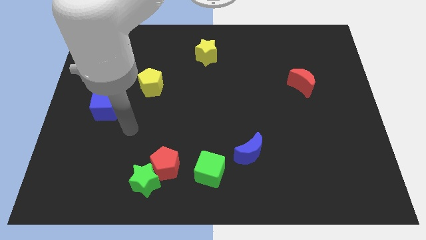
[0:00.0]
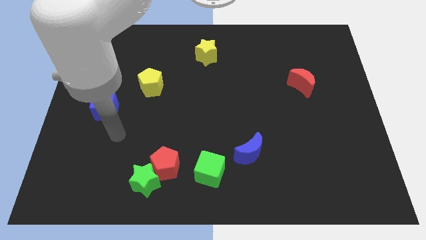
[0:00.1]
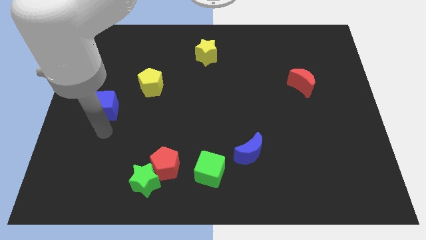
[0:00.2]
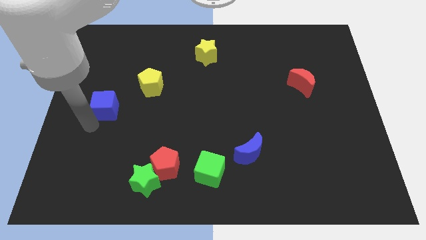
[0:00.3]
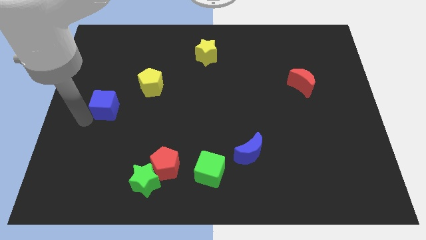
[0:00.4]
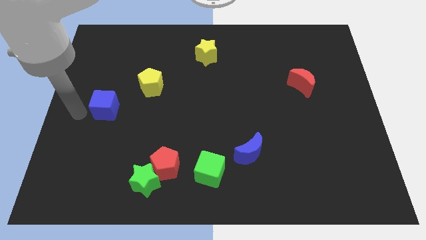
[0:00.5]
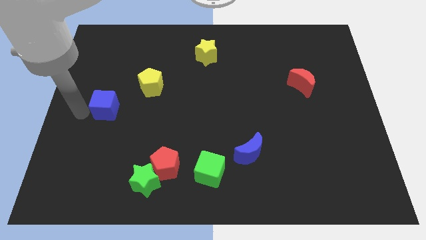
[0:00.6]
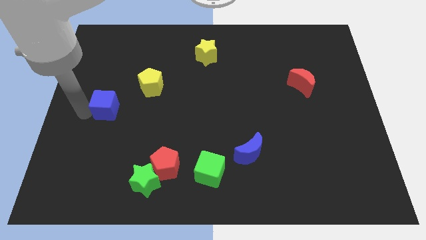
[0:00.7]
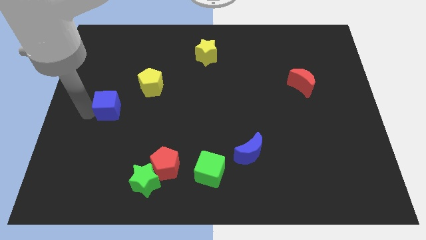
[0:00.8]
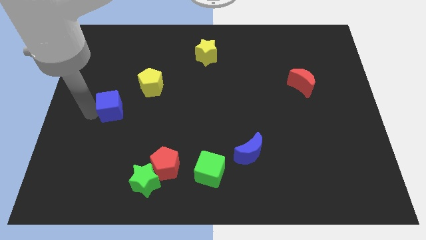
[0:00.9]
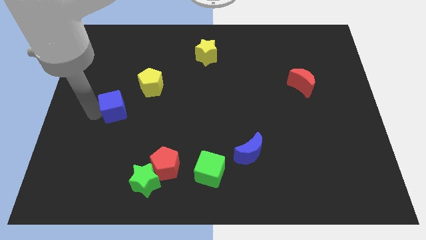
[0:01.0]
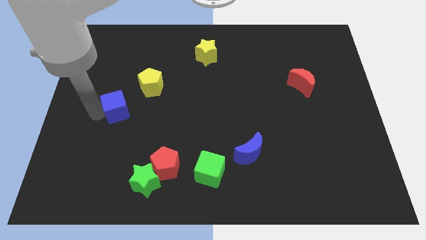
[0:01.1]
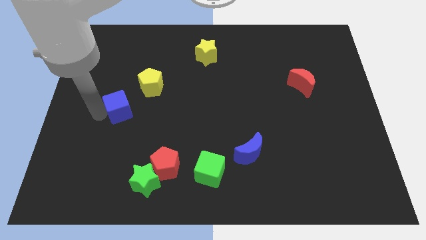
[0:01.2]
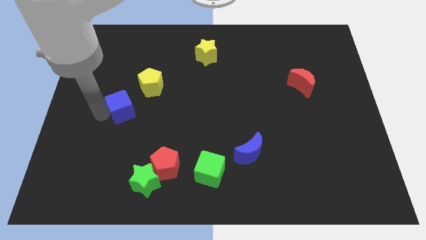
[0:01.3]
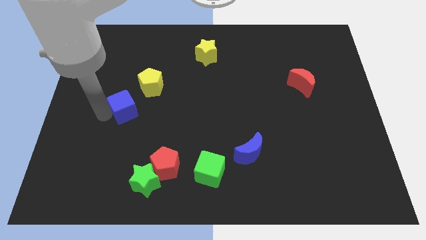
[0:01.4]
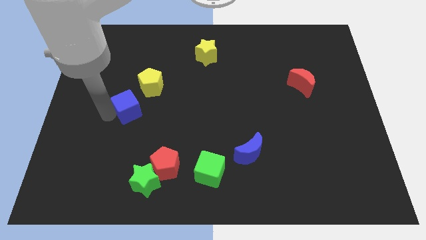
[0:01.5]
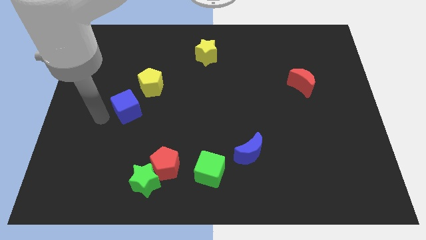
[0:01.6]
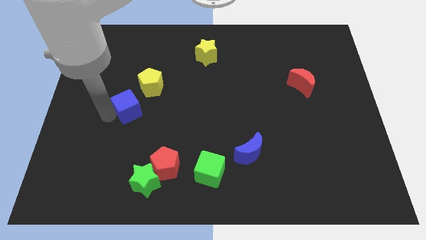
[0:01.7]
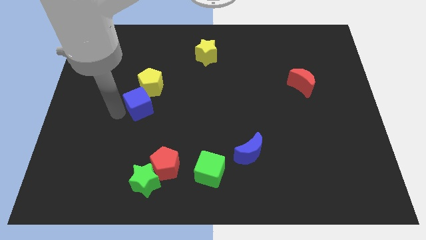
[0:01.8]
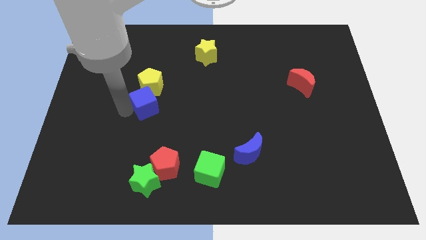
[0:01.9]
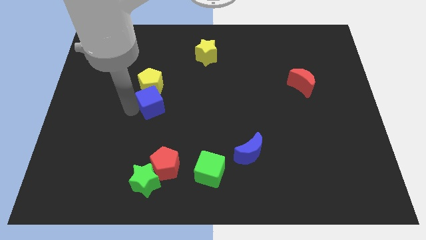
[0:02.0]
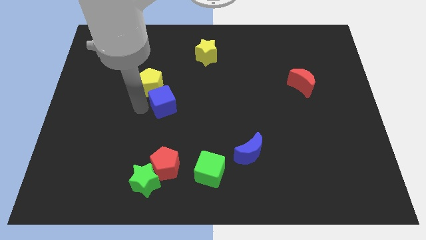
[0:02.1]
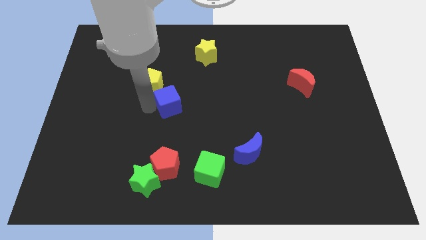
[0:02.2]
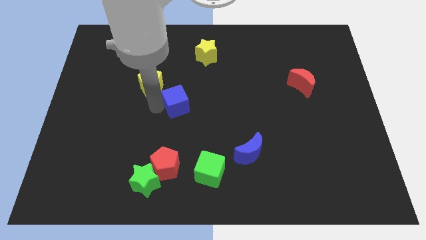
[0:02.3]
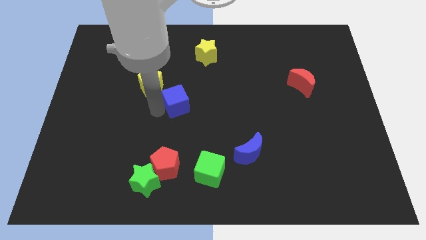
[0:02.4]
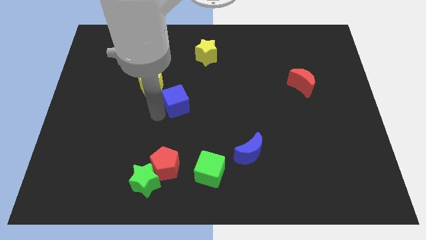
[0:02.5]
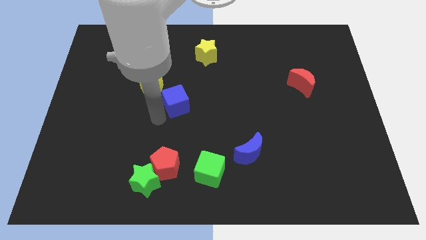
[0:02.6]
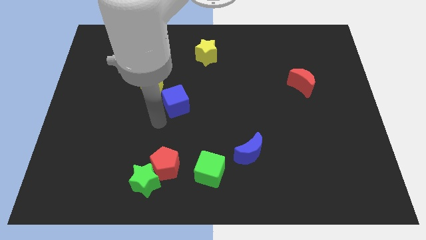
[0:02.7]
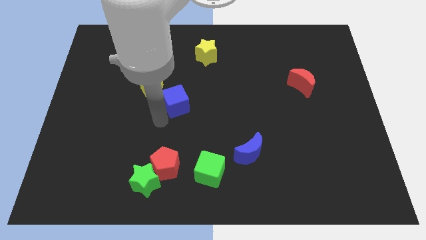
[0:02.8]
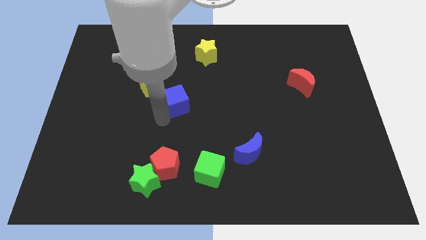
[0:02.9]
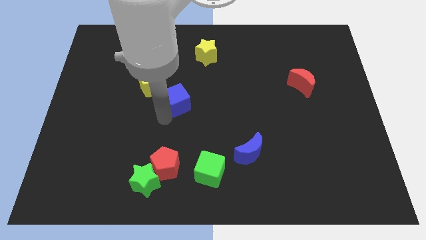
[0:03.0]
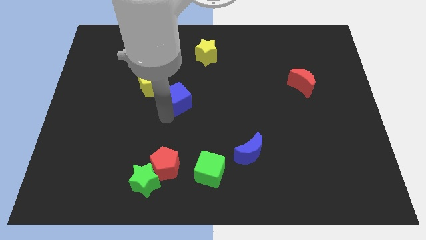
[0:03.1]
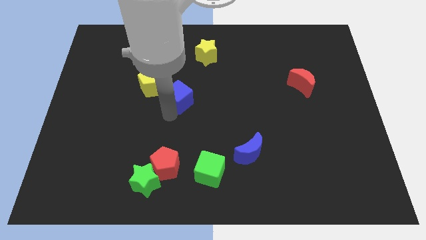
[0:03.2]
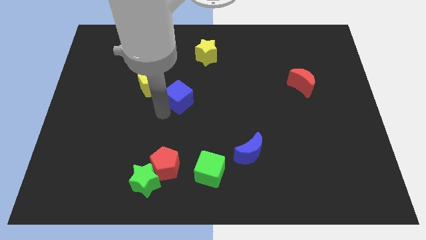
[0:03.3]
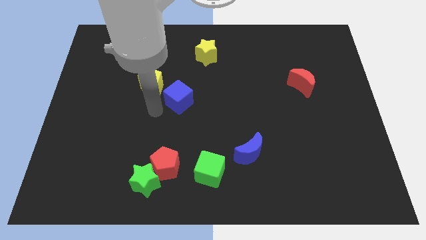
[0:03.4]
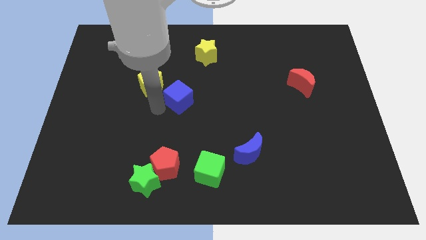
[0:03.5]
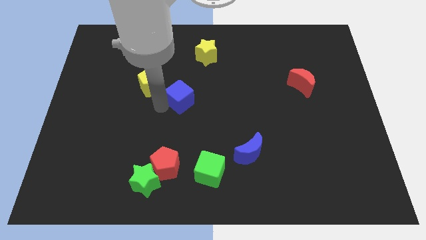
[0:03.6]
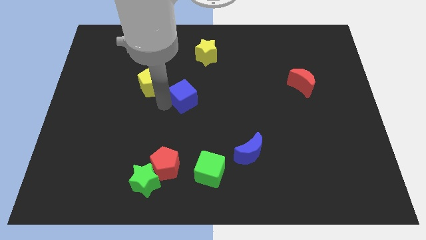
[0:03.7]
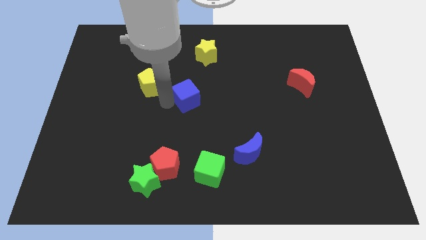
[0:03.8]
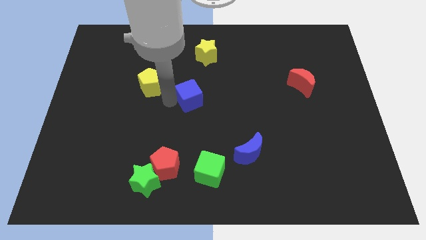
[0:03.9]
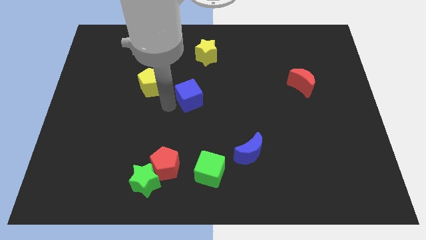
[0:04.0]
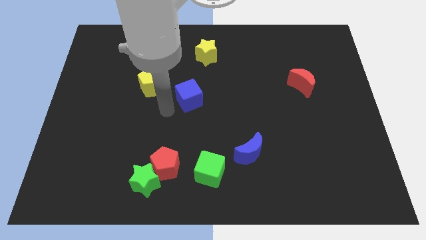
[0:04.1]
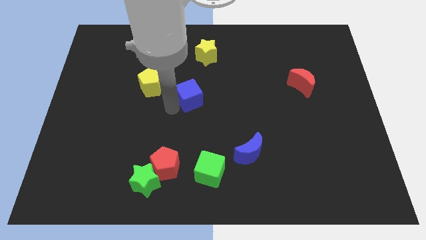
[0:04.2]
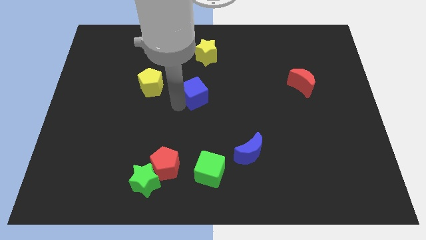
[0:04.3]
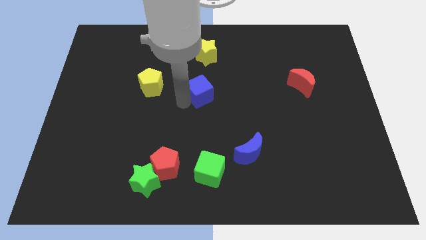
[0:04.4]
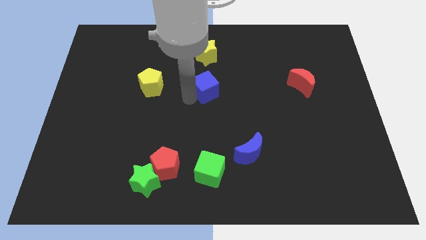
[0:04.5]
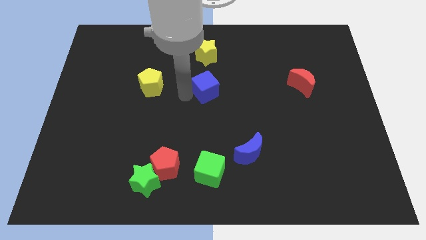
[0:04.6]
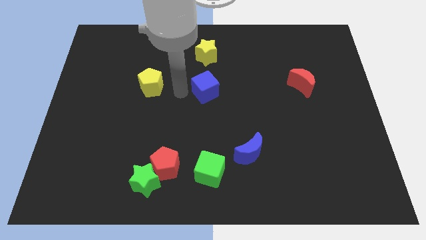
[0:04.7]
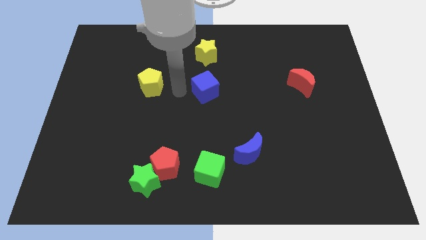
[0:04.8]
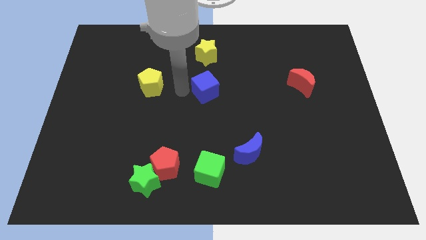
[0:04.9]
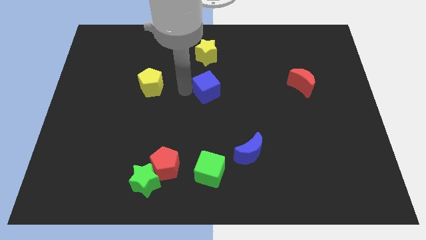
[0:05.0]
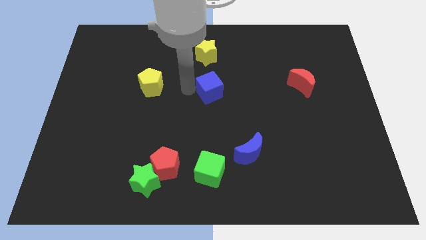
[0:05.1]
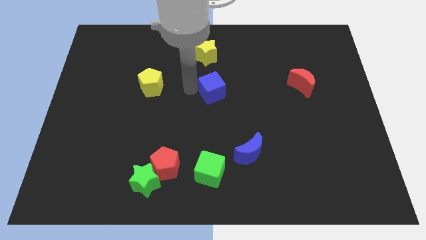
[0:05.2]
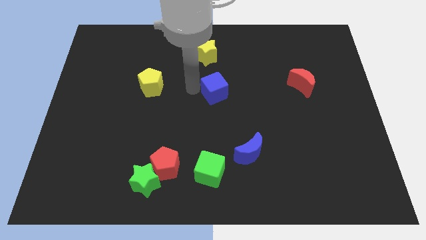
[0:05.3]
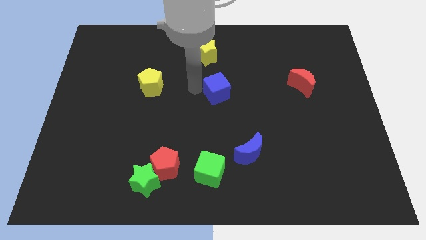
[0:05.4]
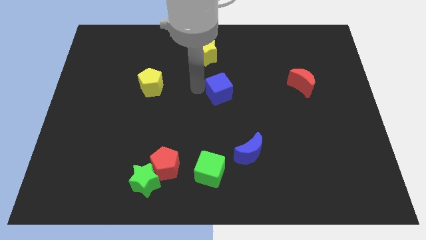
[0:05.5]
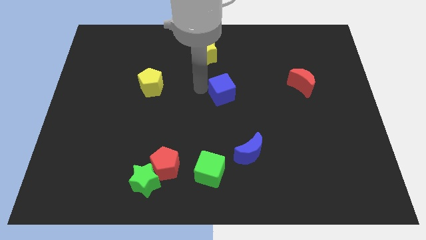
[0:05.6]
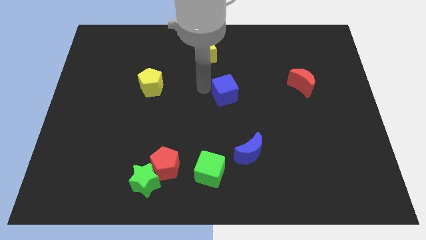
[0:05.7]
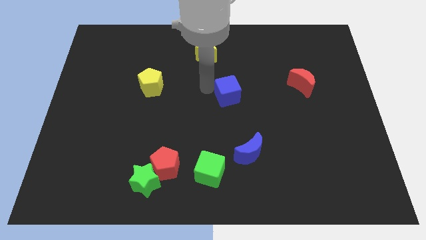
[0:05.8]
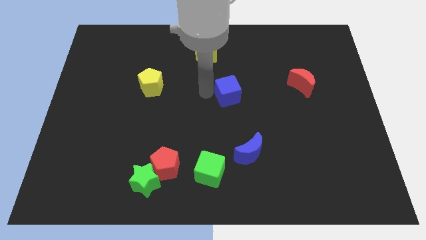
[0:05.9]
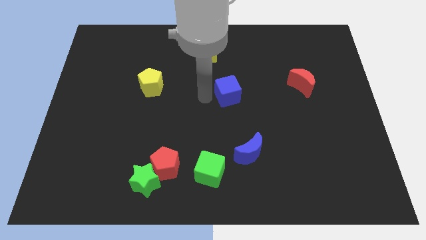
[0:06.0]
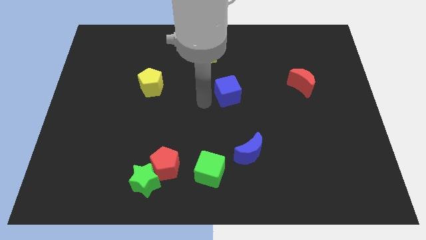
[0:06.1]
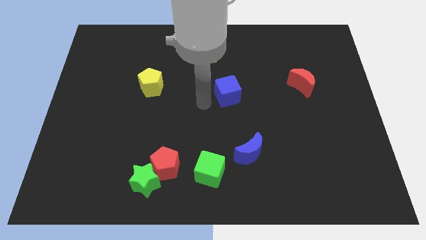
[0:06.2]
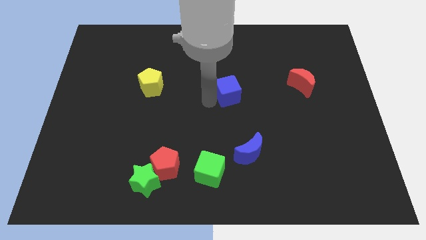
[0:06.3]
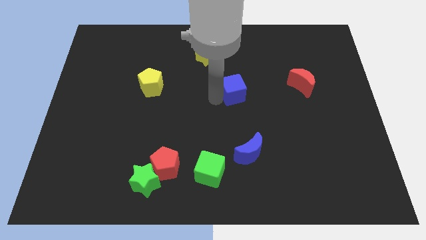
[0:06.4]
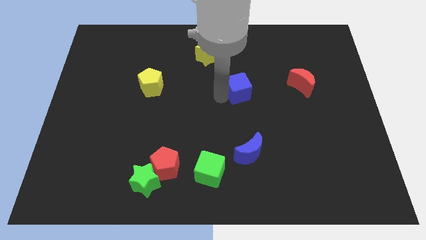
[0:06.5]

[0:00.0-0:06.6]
put the blue cube to the left side of the red moon
